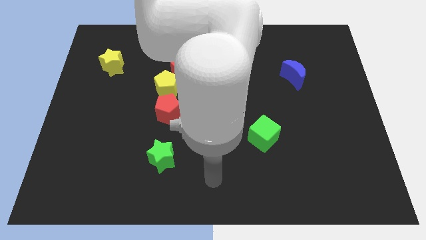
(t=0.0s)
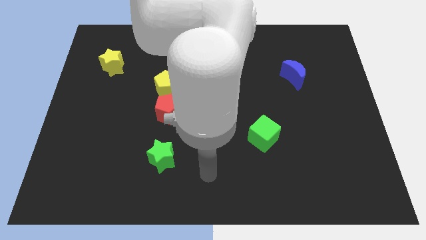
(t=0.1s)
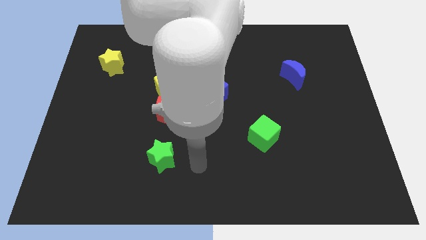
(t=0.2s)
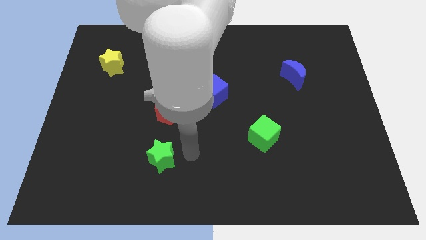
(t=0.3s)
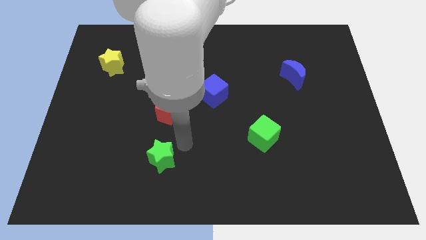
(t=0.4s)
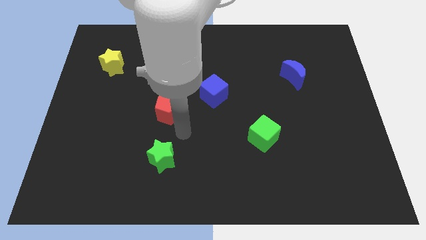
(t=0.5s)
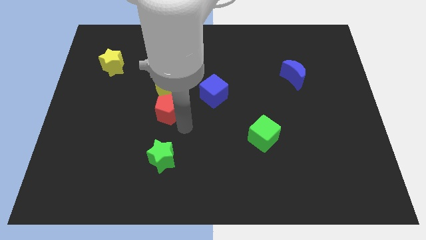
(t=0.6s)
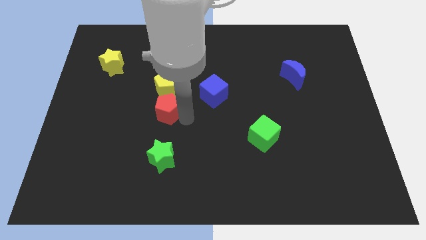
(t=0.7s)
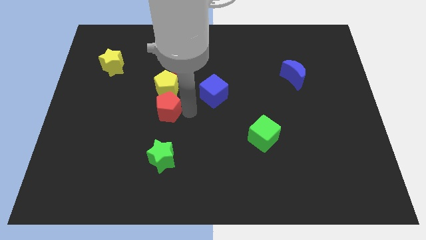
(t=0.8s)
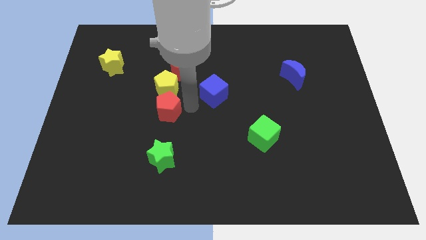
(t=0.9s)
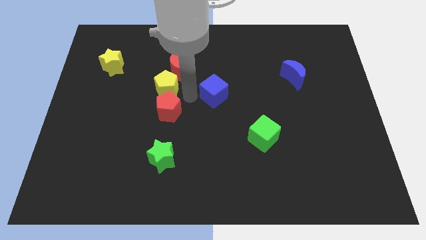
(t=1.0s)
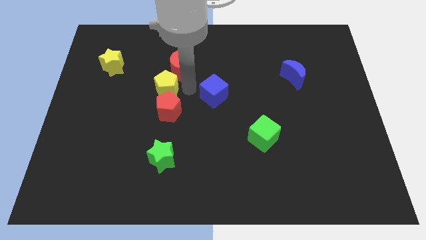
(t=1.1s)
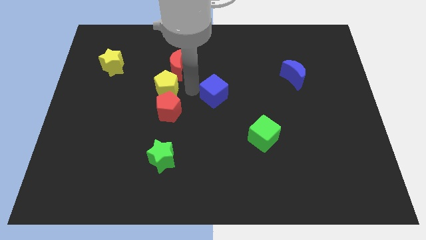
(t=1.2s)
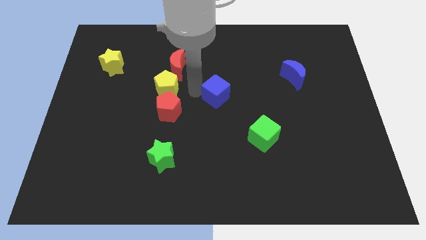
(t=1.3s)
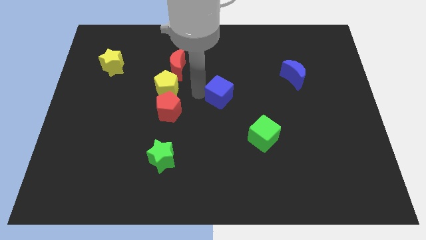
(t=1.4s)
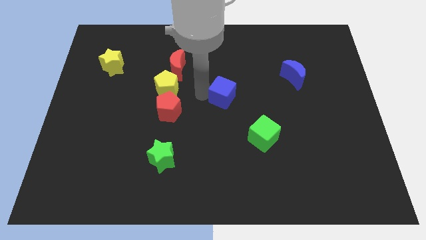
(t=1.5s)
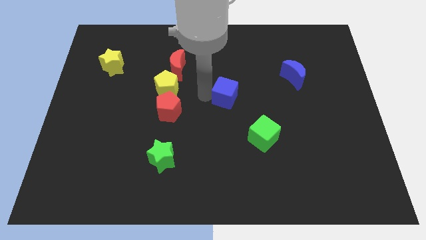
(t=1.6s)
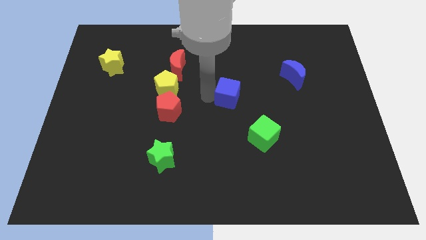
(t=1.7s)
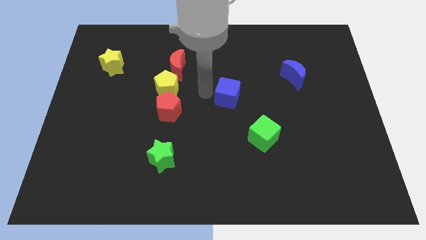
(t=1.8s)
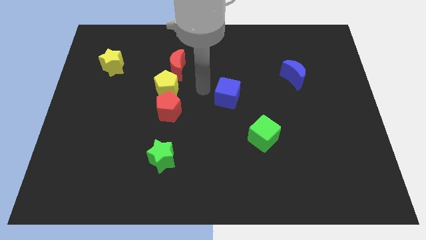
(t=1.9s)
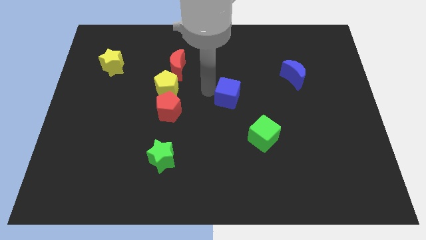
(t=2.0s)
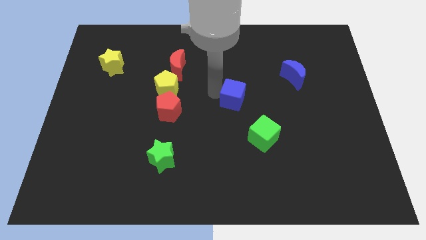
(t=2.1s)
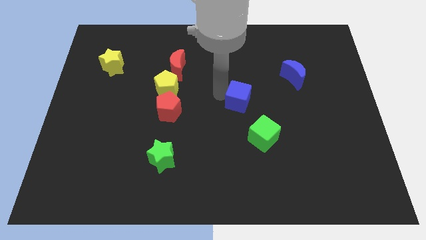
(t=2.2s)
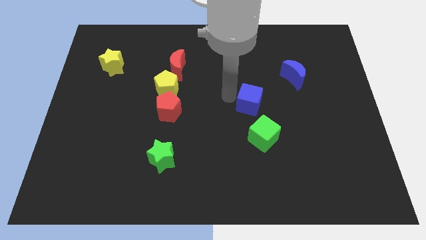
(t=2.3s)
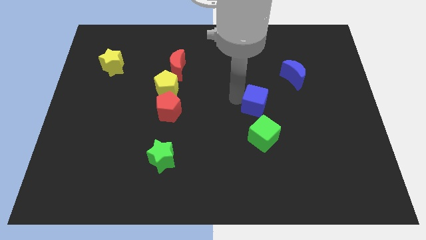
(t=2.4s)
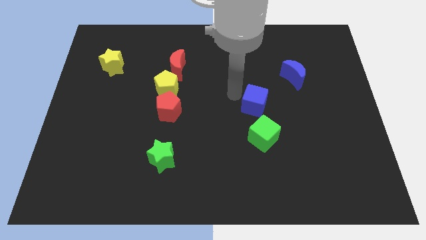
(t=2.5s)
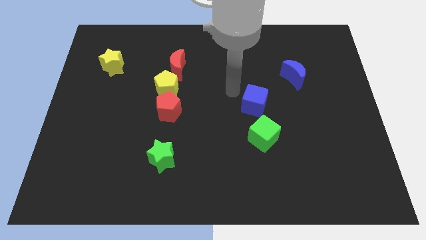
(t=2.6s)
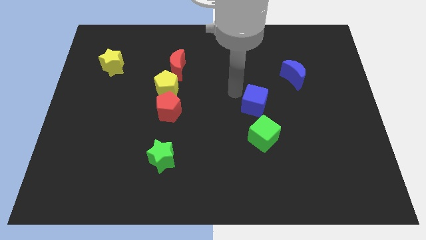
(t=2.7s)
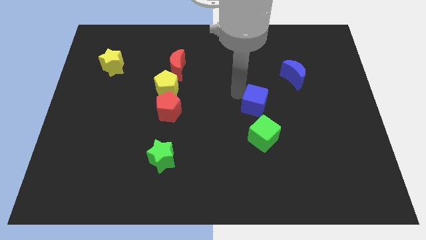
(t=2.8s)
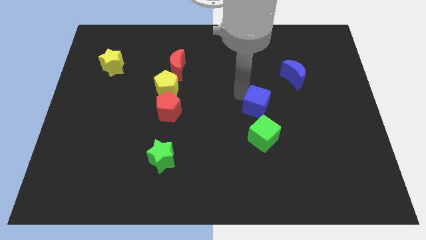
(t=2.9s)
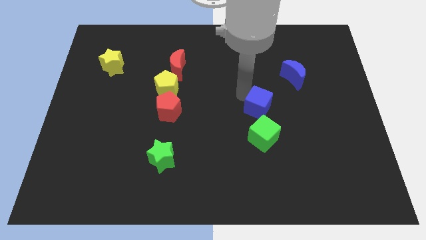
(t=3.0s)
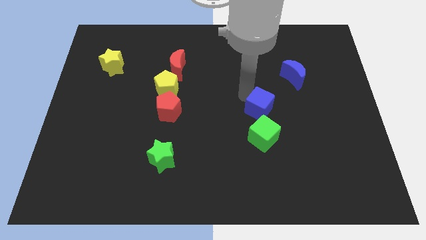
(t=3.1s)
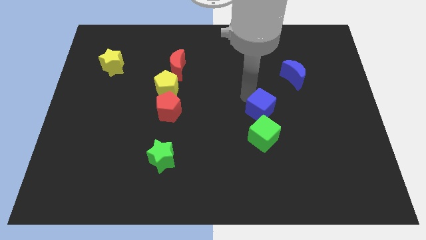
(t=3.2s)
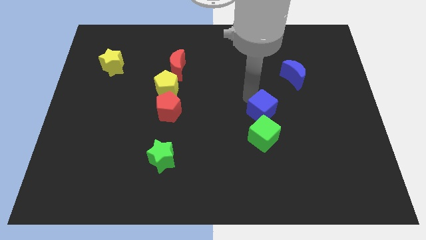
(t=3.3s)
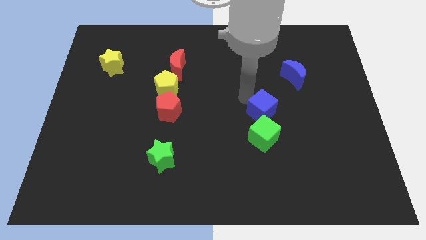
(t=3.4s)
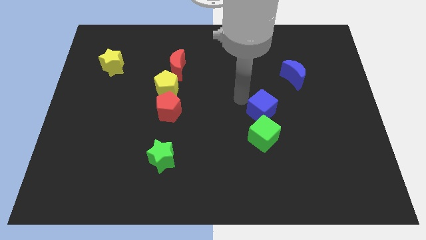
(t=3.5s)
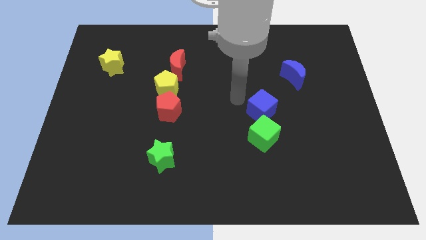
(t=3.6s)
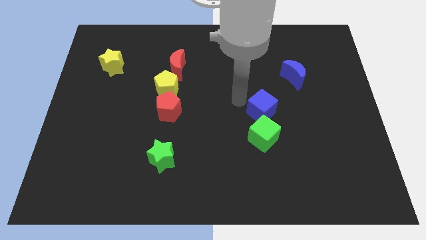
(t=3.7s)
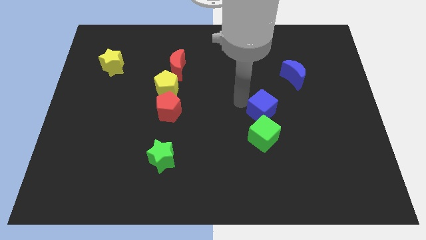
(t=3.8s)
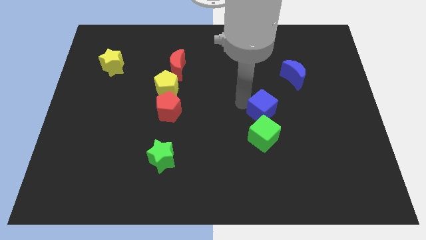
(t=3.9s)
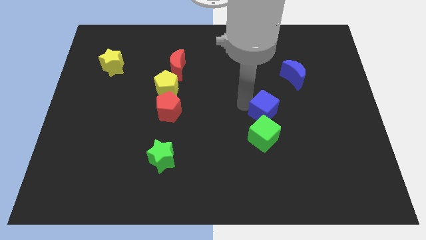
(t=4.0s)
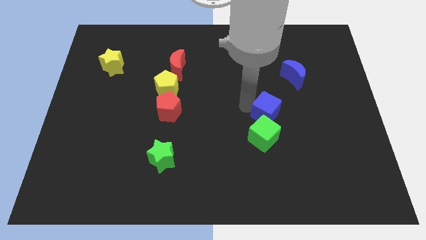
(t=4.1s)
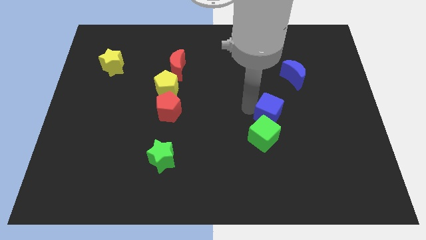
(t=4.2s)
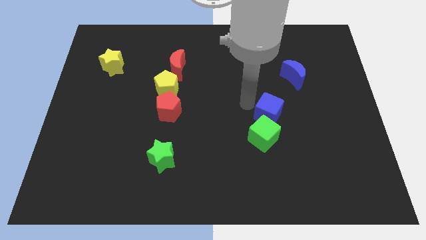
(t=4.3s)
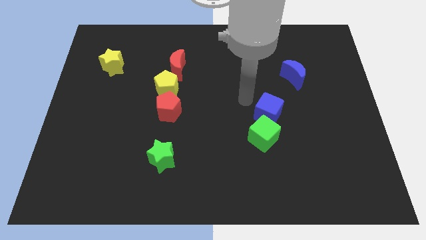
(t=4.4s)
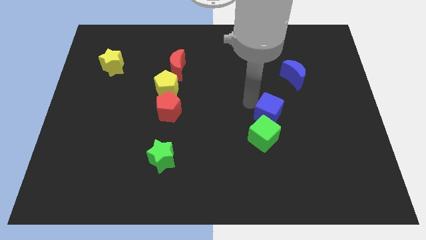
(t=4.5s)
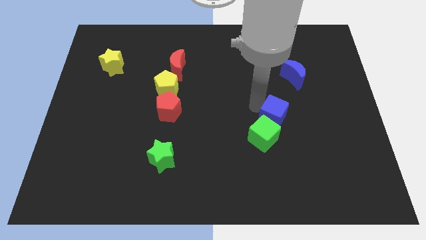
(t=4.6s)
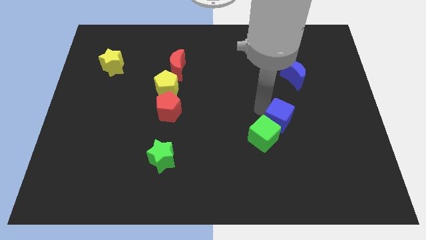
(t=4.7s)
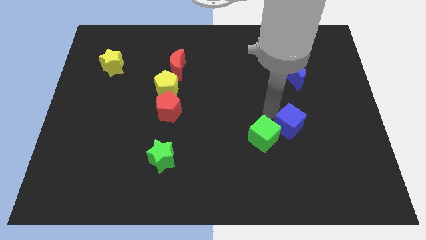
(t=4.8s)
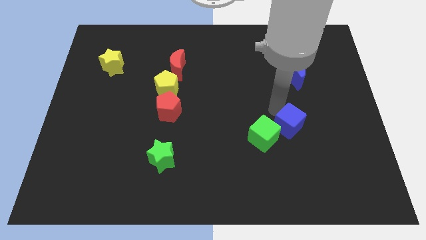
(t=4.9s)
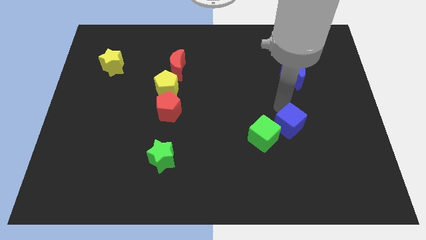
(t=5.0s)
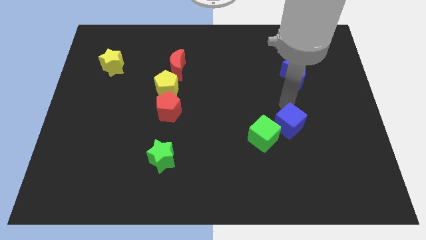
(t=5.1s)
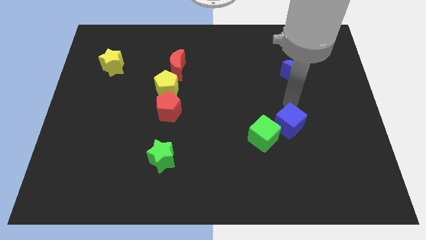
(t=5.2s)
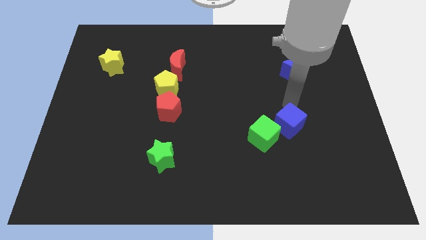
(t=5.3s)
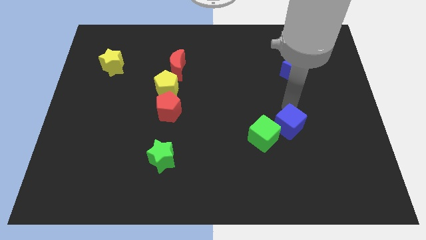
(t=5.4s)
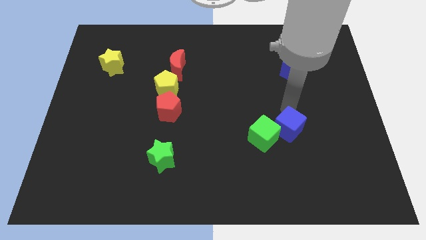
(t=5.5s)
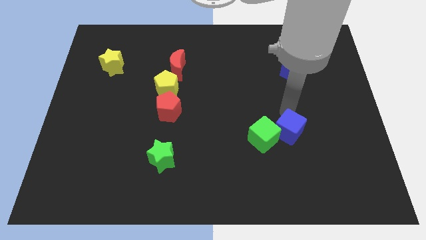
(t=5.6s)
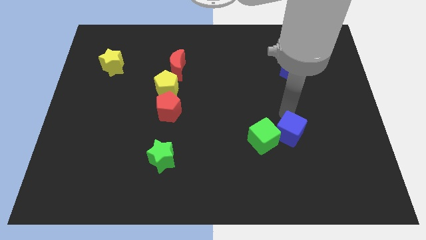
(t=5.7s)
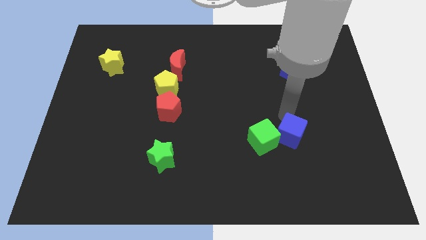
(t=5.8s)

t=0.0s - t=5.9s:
slide the blue cube downwards and right

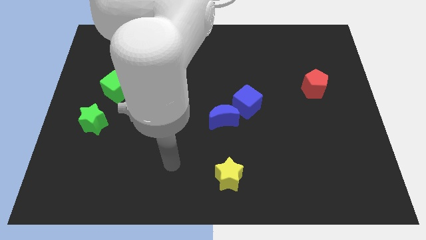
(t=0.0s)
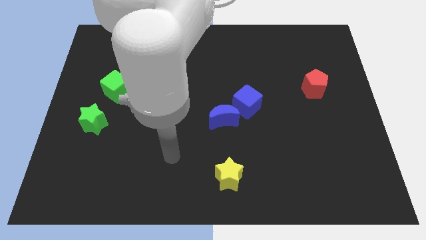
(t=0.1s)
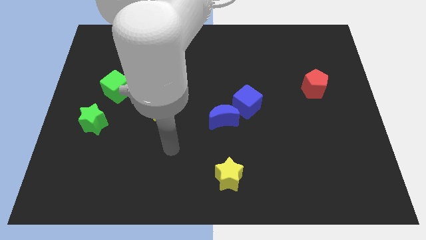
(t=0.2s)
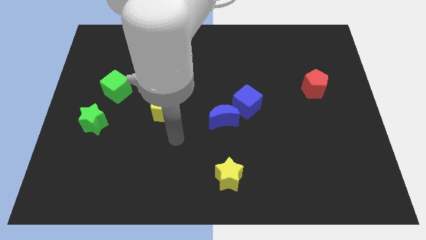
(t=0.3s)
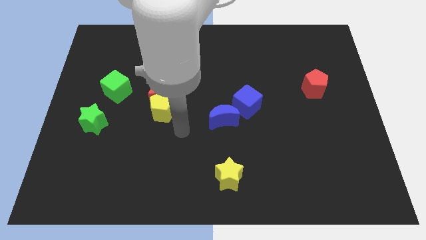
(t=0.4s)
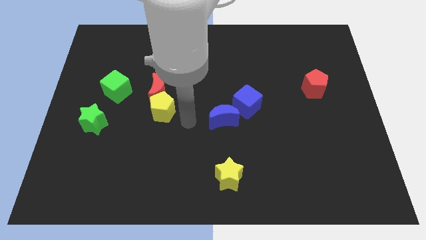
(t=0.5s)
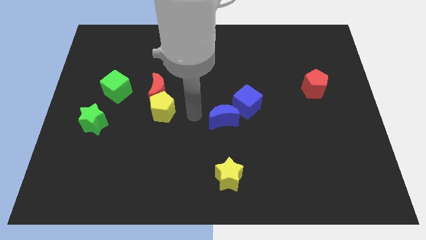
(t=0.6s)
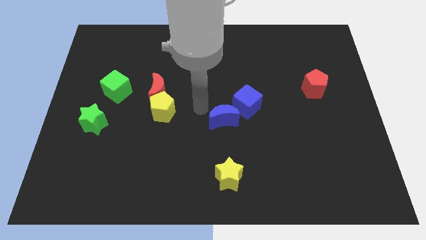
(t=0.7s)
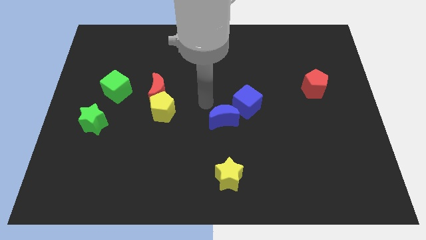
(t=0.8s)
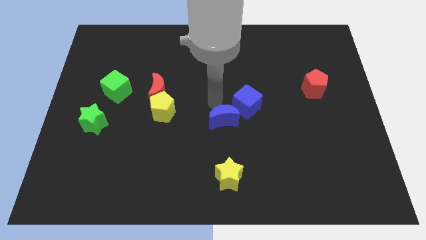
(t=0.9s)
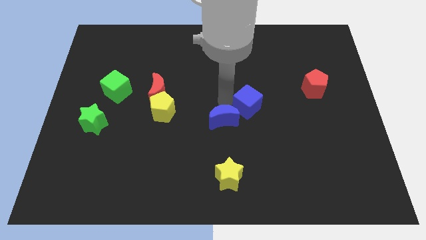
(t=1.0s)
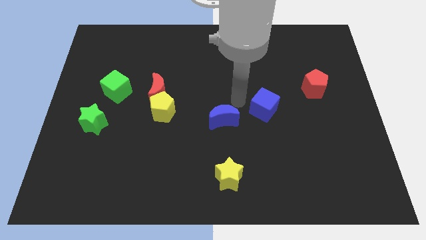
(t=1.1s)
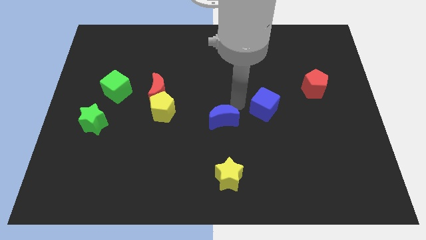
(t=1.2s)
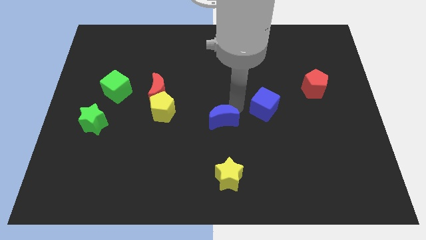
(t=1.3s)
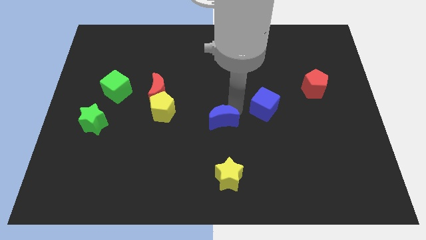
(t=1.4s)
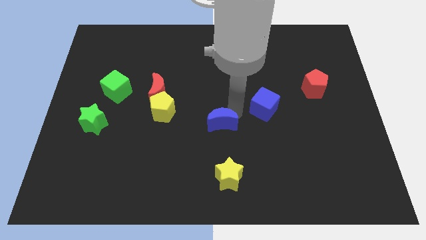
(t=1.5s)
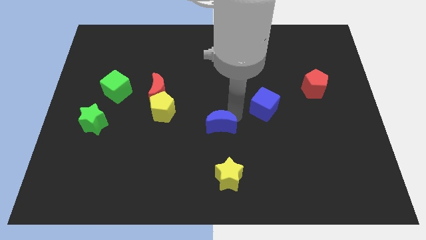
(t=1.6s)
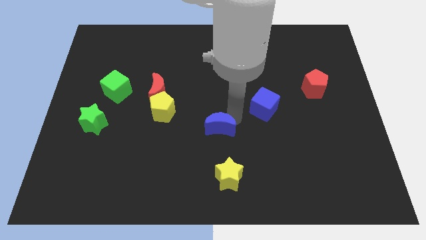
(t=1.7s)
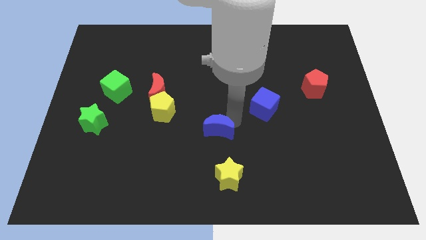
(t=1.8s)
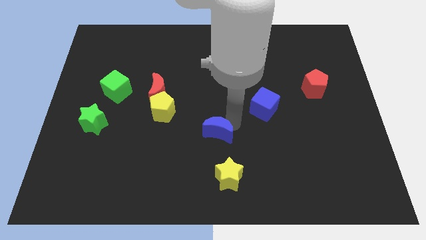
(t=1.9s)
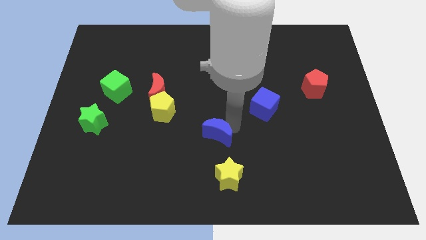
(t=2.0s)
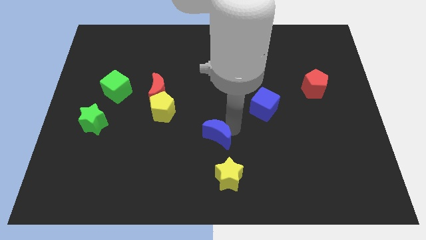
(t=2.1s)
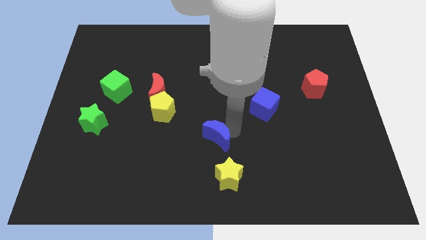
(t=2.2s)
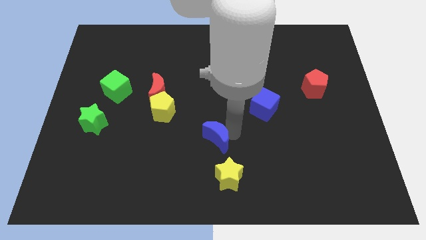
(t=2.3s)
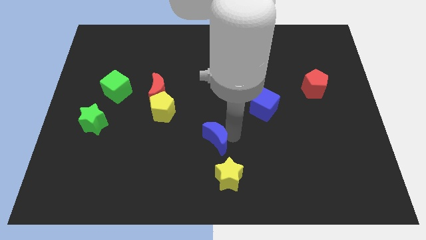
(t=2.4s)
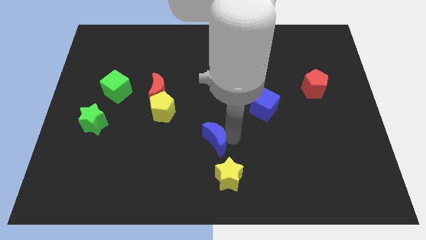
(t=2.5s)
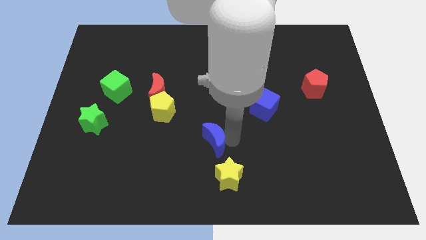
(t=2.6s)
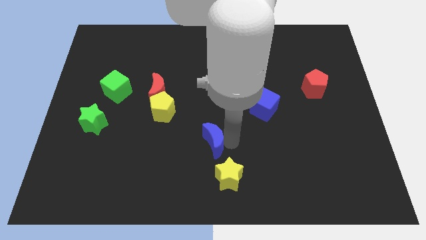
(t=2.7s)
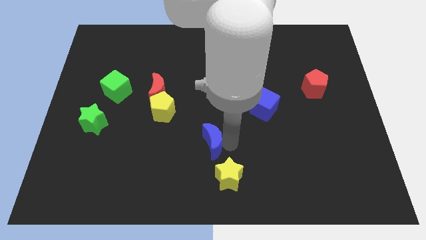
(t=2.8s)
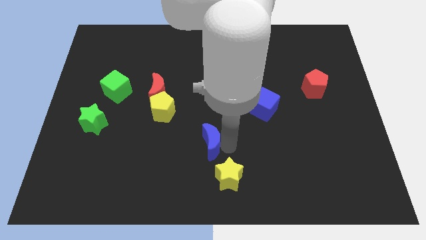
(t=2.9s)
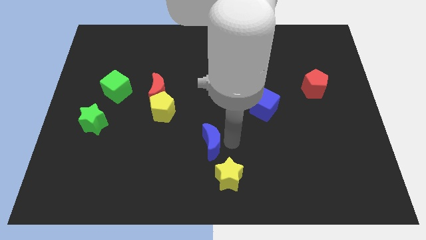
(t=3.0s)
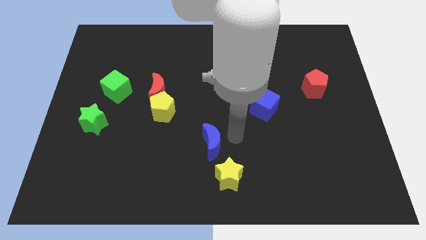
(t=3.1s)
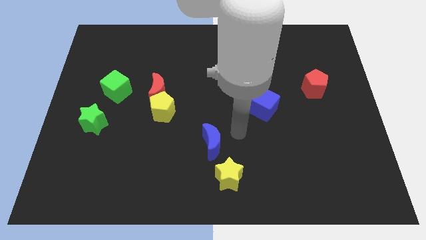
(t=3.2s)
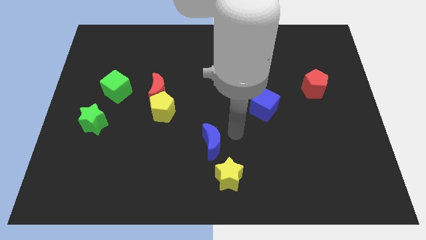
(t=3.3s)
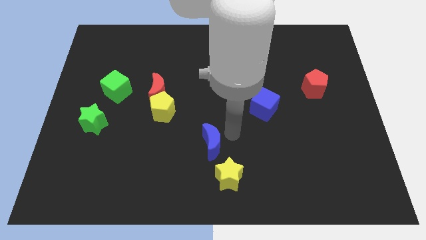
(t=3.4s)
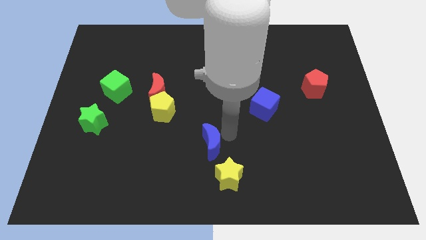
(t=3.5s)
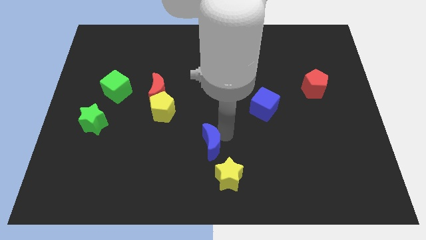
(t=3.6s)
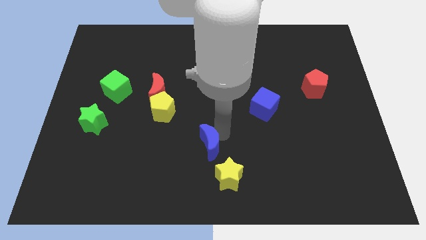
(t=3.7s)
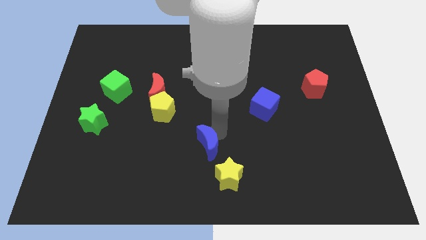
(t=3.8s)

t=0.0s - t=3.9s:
push the blue moon a bit down and left diagonally
